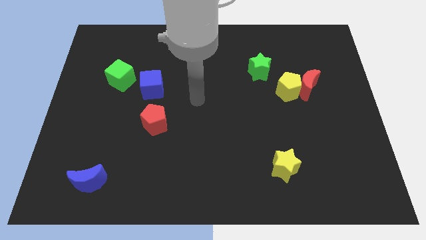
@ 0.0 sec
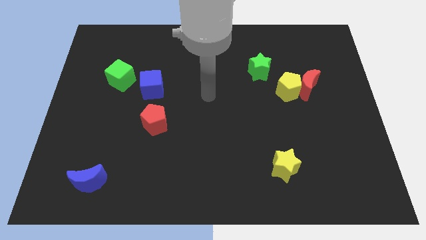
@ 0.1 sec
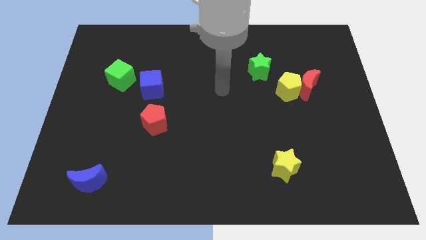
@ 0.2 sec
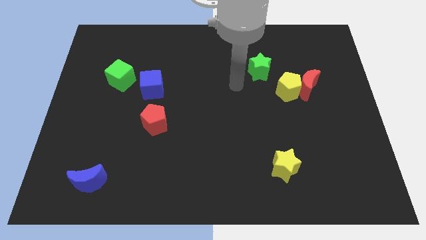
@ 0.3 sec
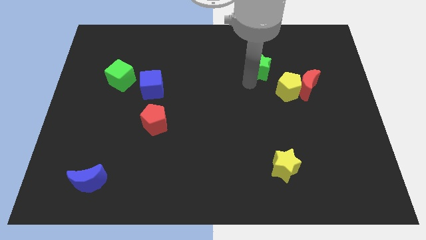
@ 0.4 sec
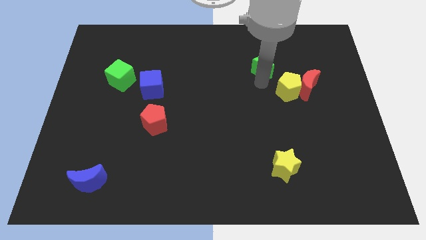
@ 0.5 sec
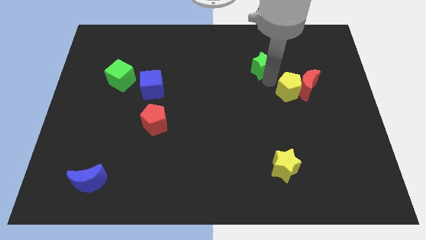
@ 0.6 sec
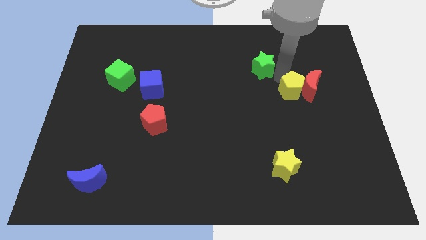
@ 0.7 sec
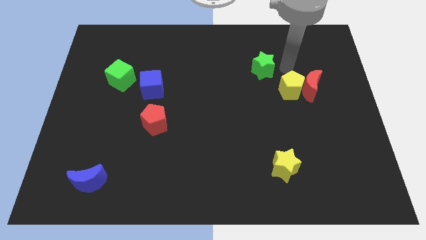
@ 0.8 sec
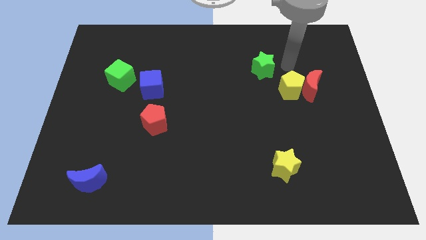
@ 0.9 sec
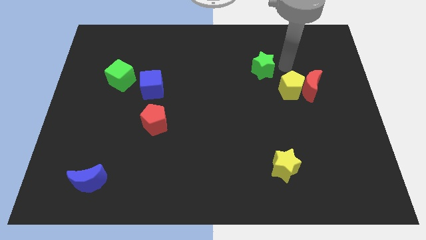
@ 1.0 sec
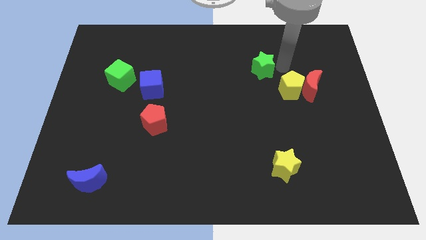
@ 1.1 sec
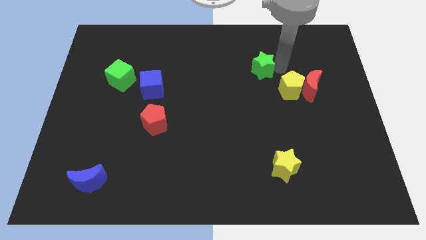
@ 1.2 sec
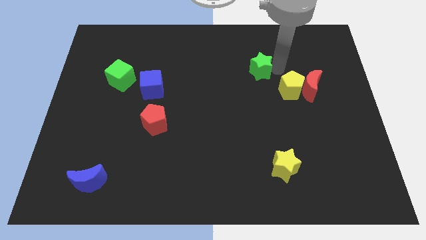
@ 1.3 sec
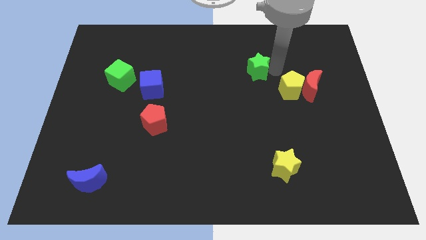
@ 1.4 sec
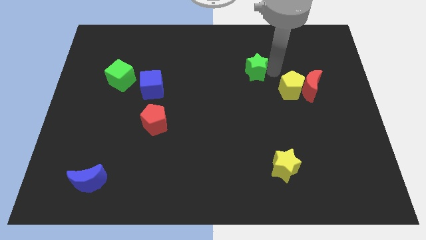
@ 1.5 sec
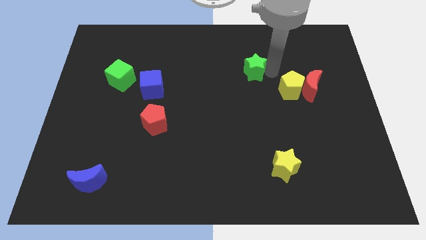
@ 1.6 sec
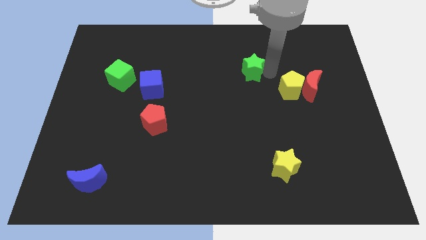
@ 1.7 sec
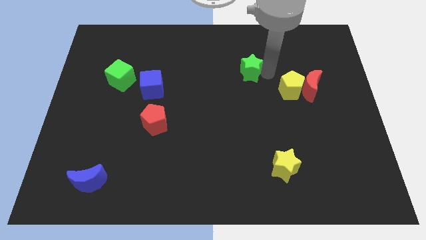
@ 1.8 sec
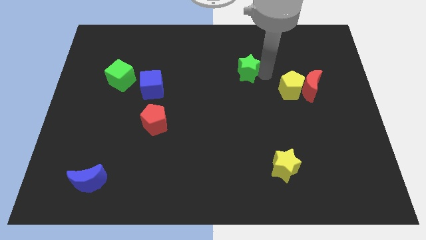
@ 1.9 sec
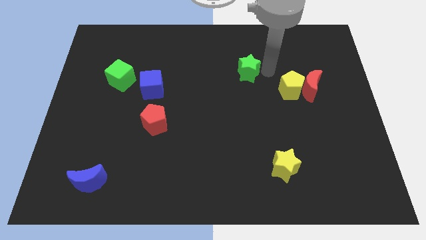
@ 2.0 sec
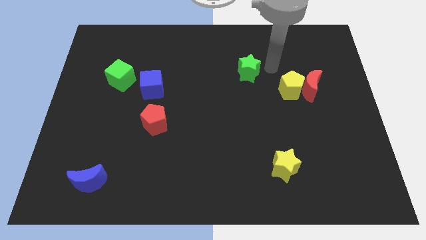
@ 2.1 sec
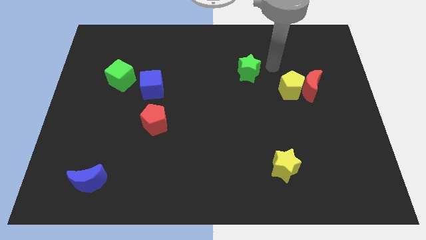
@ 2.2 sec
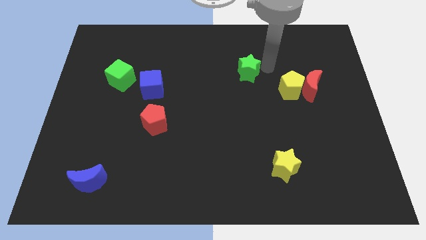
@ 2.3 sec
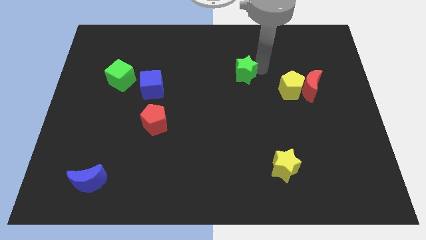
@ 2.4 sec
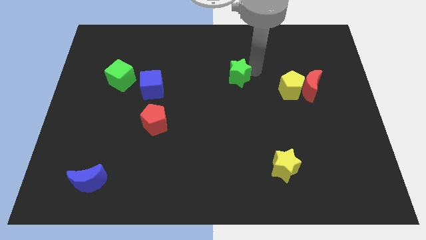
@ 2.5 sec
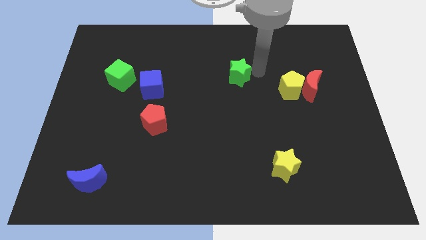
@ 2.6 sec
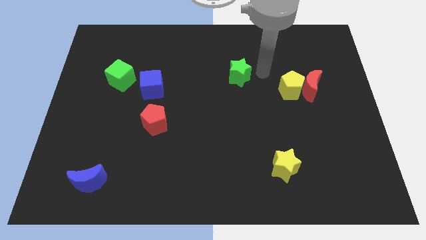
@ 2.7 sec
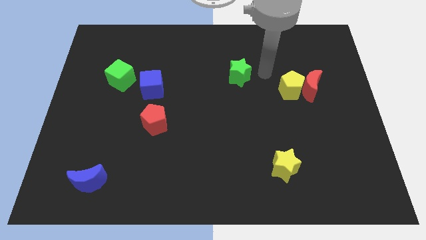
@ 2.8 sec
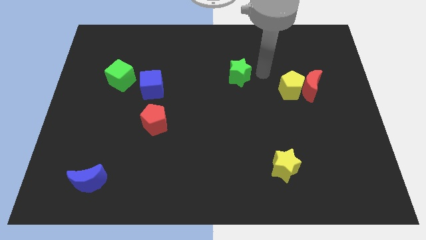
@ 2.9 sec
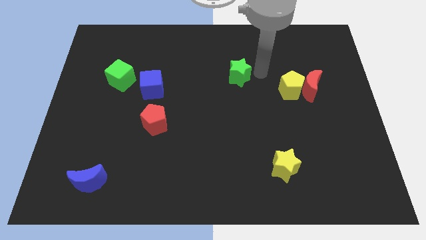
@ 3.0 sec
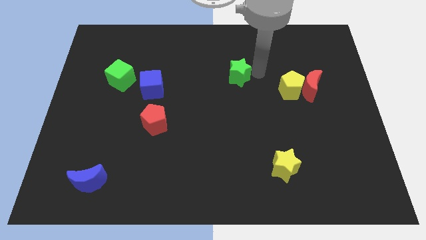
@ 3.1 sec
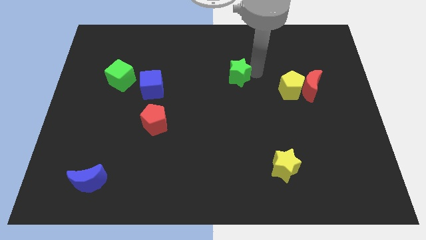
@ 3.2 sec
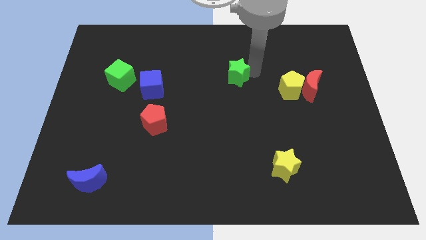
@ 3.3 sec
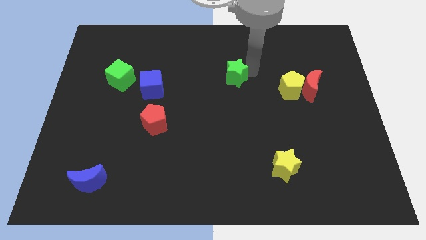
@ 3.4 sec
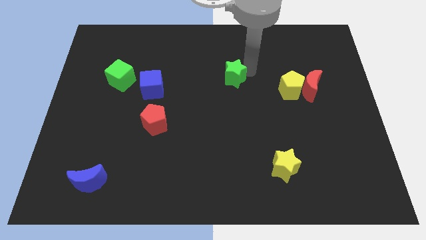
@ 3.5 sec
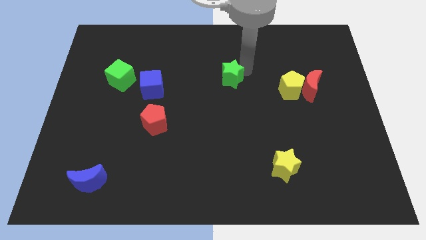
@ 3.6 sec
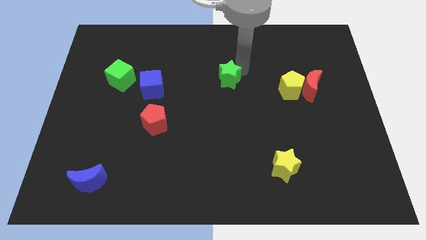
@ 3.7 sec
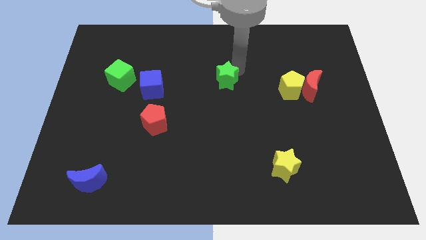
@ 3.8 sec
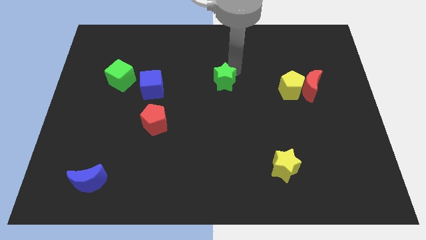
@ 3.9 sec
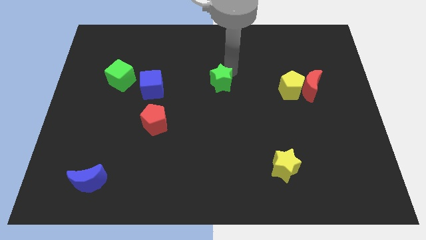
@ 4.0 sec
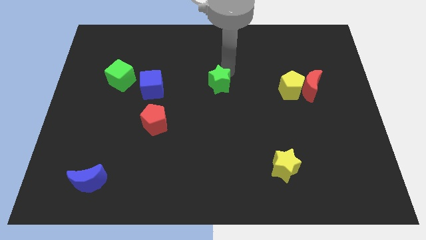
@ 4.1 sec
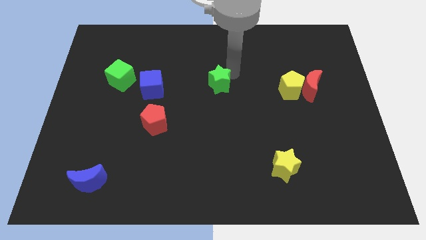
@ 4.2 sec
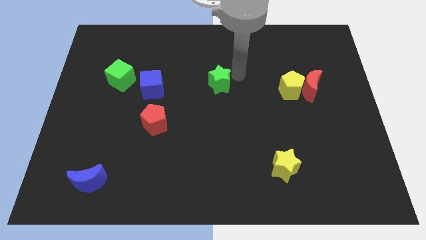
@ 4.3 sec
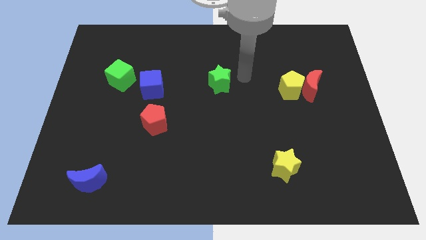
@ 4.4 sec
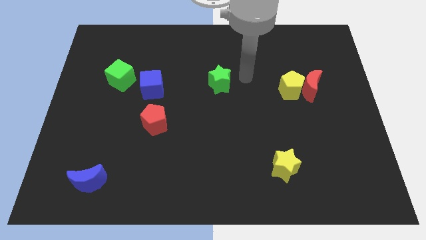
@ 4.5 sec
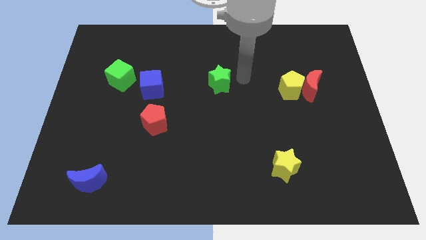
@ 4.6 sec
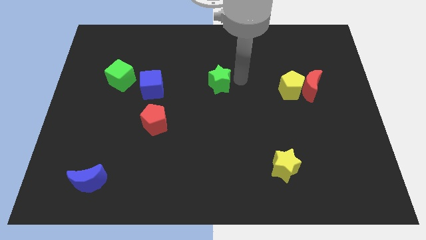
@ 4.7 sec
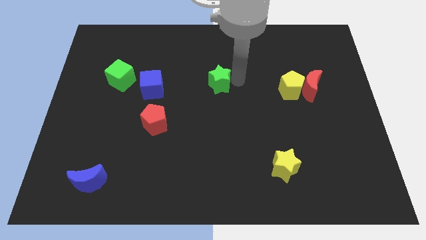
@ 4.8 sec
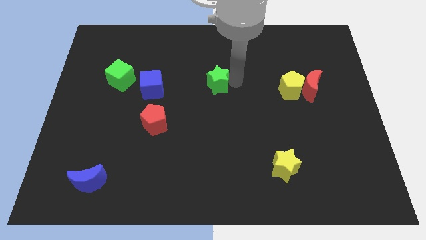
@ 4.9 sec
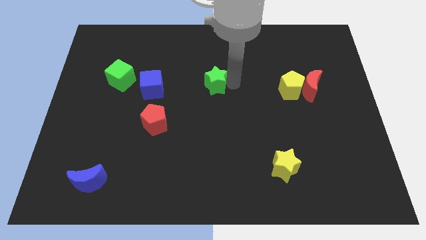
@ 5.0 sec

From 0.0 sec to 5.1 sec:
move the green star right of the blue cube

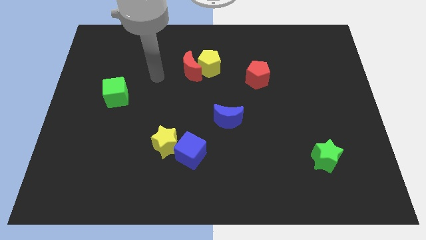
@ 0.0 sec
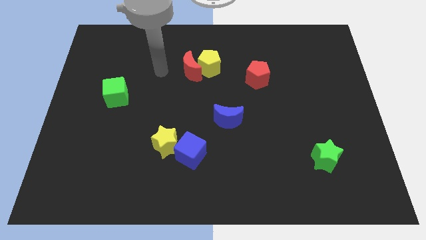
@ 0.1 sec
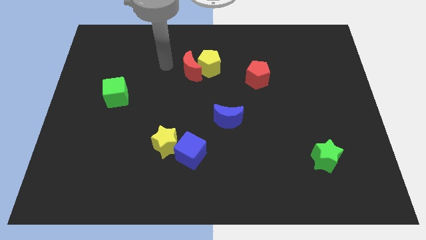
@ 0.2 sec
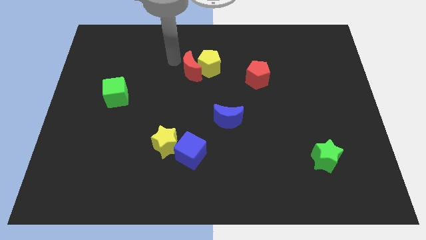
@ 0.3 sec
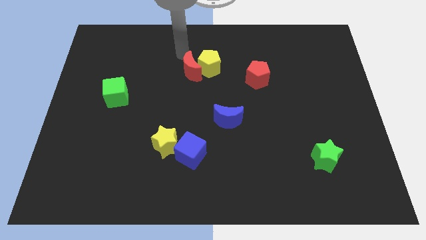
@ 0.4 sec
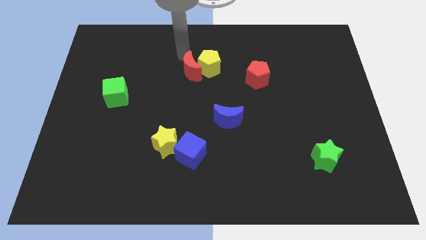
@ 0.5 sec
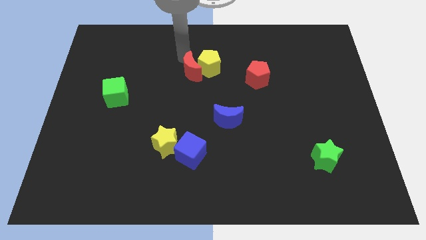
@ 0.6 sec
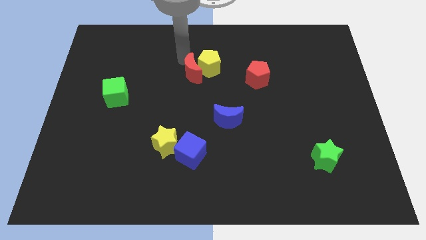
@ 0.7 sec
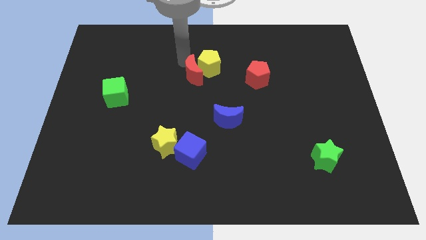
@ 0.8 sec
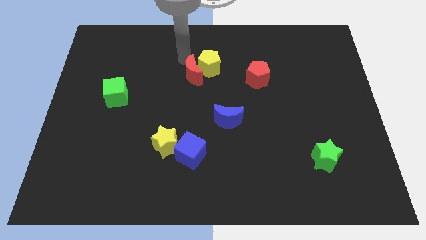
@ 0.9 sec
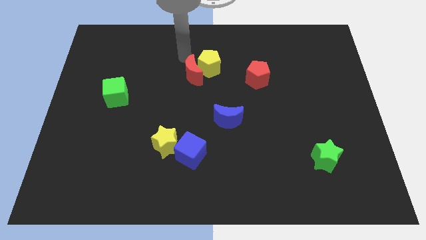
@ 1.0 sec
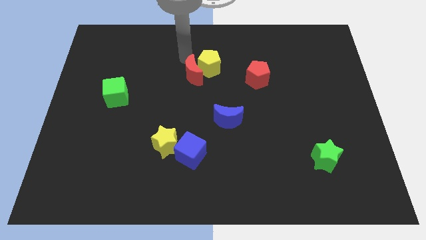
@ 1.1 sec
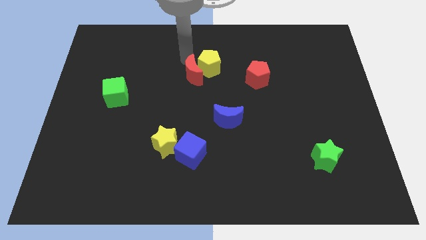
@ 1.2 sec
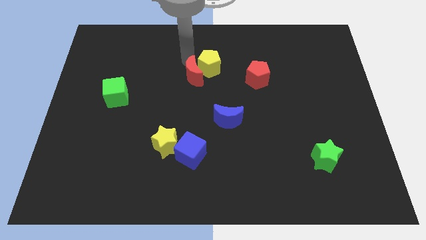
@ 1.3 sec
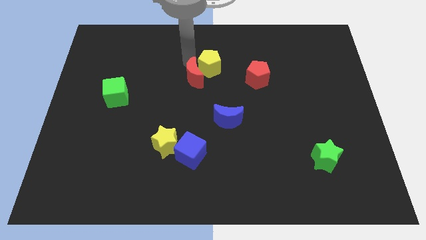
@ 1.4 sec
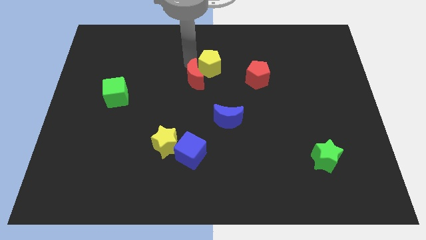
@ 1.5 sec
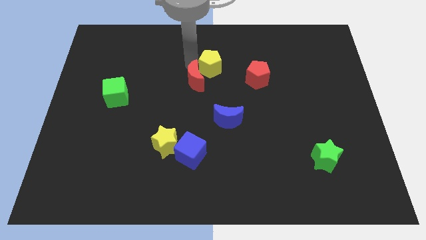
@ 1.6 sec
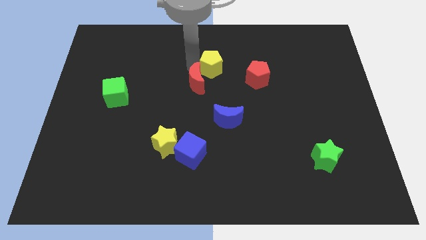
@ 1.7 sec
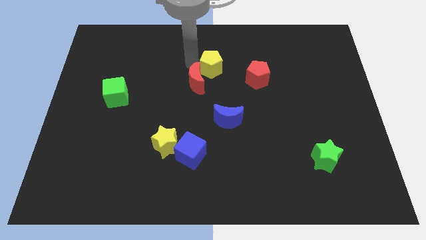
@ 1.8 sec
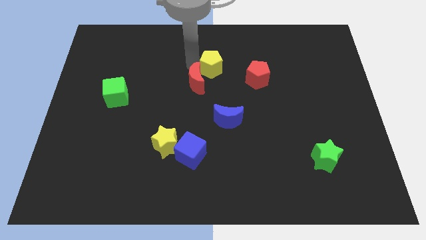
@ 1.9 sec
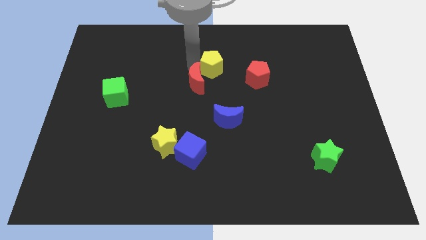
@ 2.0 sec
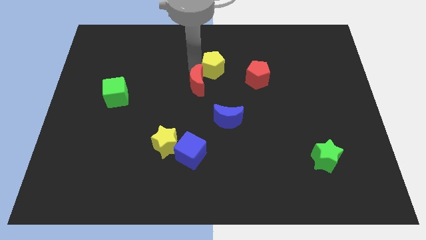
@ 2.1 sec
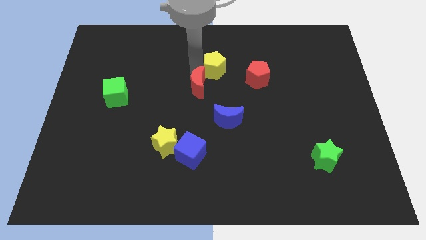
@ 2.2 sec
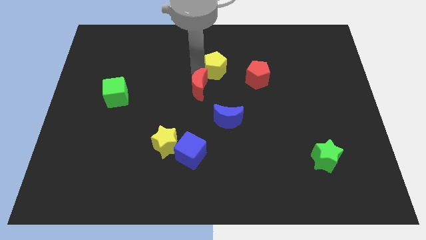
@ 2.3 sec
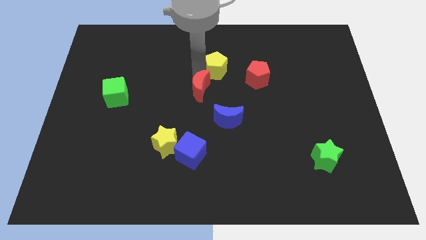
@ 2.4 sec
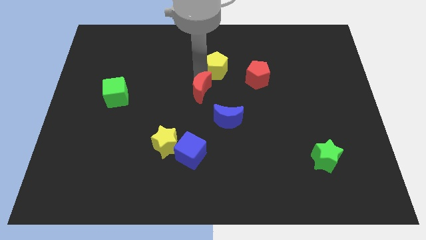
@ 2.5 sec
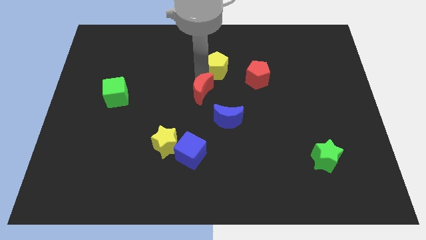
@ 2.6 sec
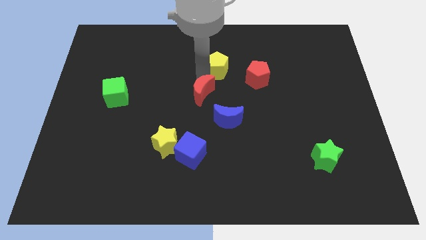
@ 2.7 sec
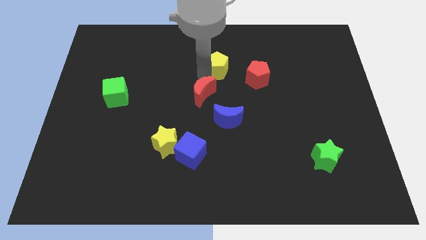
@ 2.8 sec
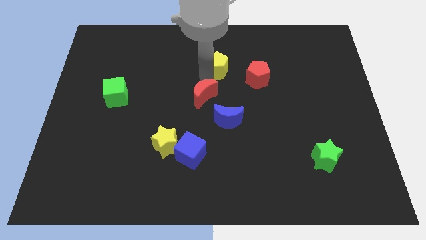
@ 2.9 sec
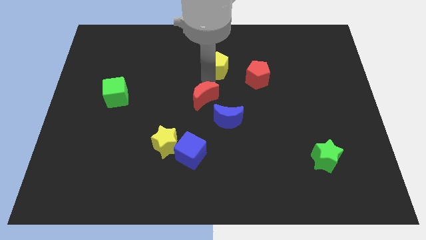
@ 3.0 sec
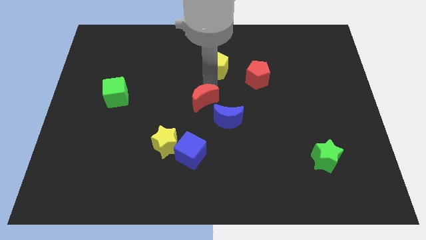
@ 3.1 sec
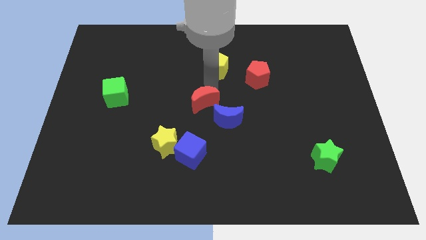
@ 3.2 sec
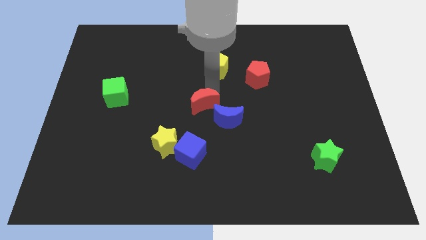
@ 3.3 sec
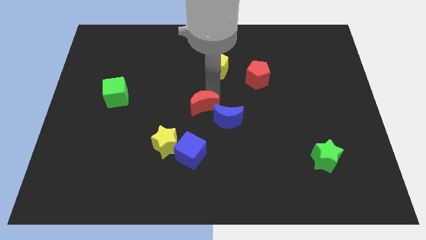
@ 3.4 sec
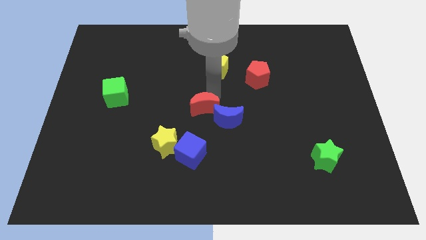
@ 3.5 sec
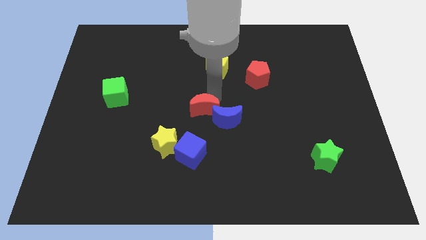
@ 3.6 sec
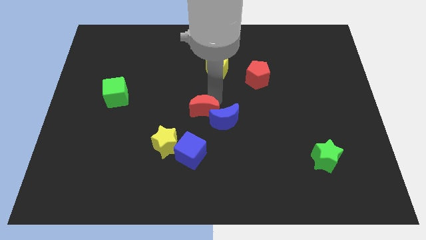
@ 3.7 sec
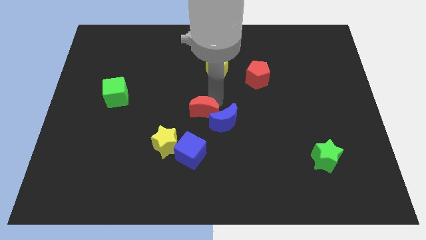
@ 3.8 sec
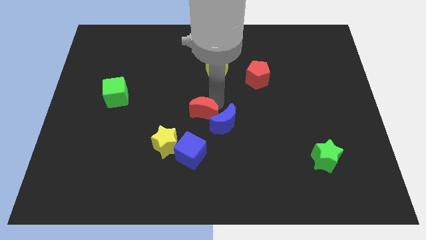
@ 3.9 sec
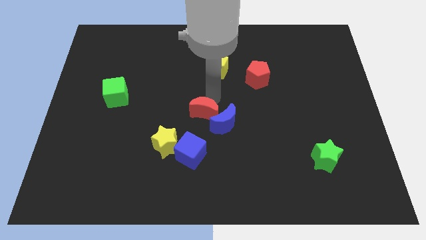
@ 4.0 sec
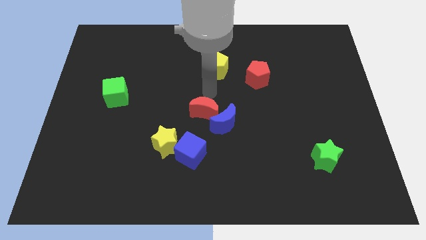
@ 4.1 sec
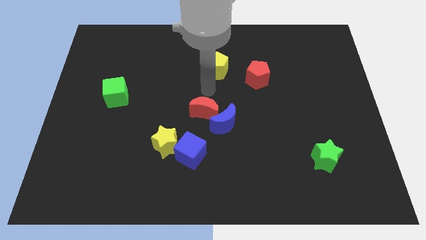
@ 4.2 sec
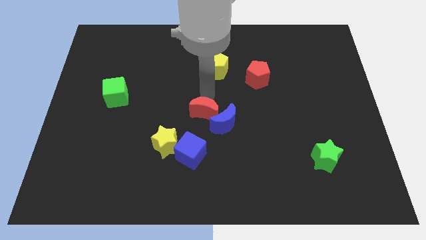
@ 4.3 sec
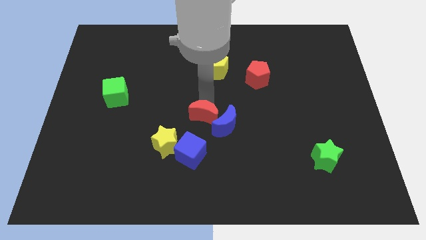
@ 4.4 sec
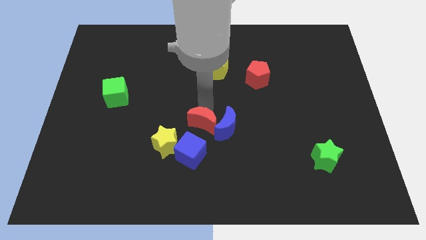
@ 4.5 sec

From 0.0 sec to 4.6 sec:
put the red moon diagonally down and to the left of the blue moon
